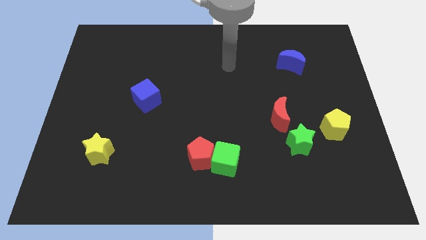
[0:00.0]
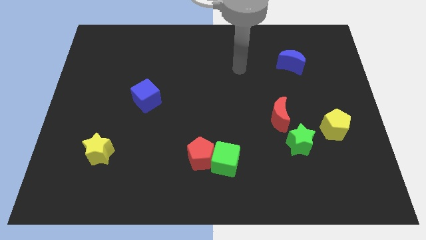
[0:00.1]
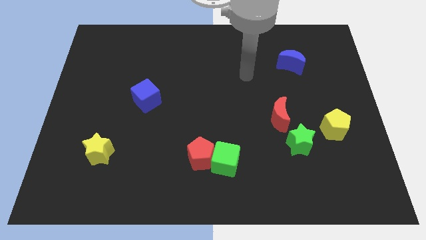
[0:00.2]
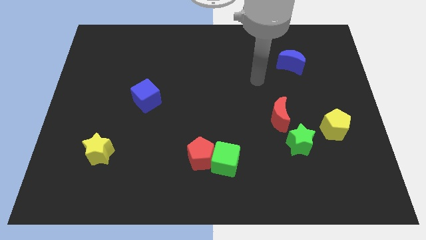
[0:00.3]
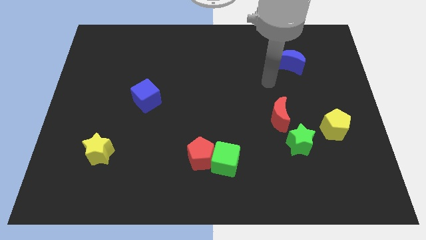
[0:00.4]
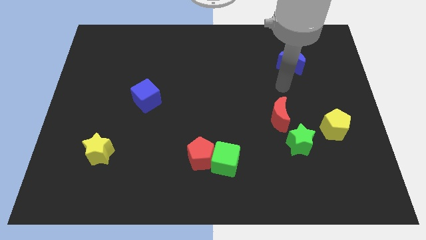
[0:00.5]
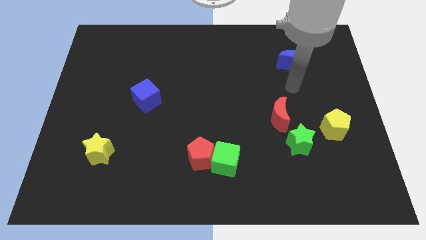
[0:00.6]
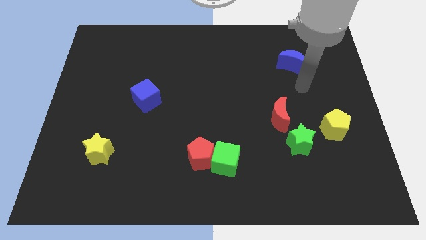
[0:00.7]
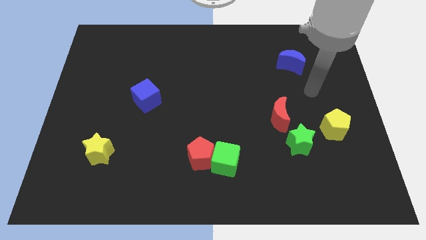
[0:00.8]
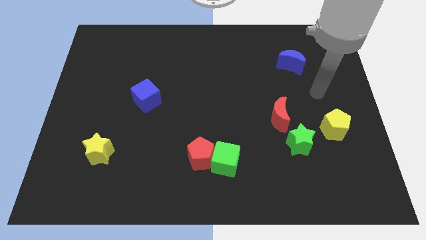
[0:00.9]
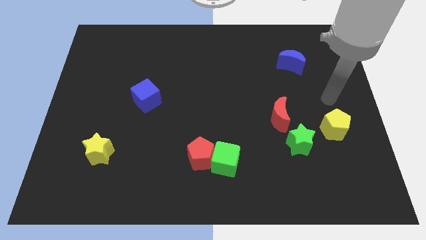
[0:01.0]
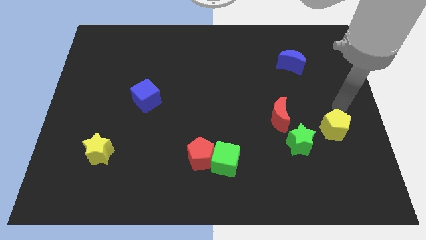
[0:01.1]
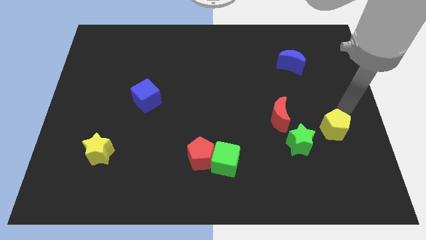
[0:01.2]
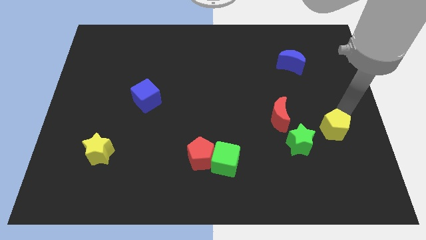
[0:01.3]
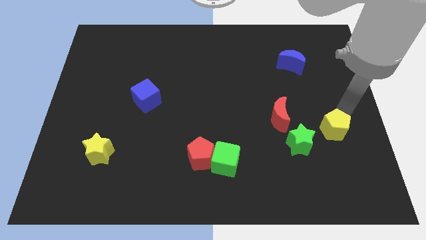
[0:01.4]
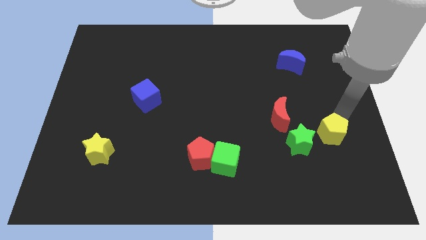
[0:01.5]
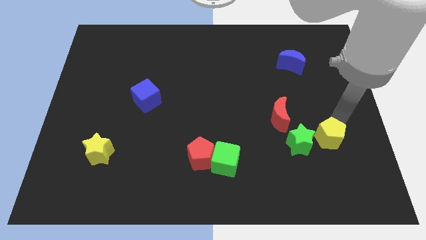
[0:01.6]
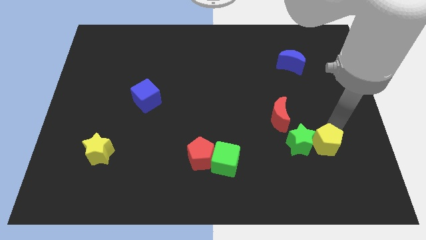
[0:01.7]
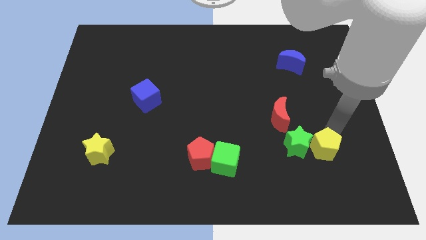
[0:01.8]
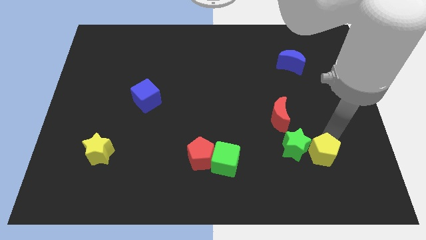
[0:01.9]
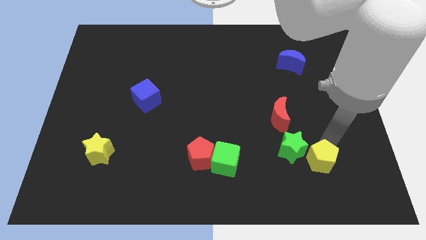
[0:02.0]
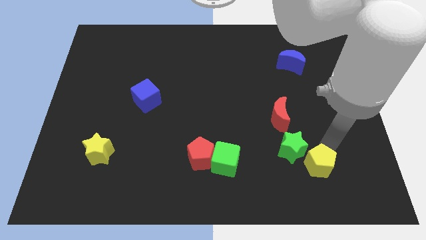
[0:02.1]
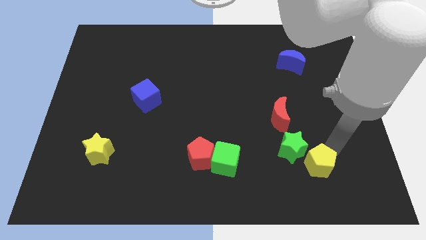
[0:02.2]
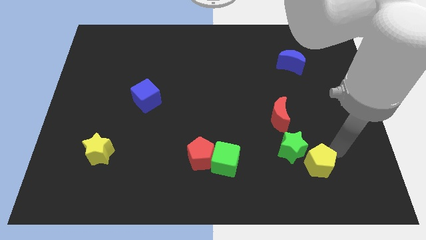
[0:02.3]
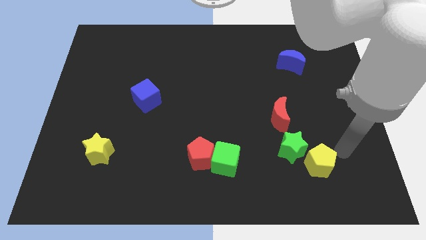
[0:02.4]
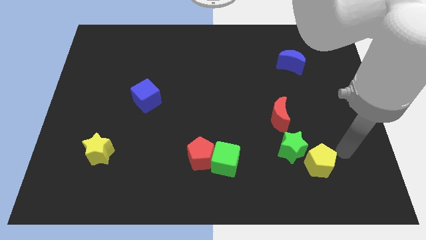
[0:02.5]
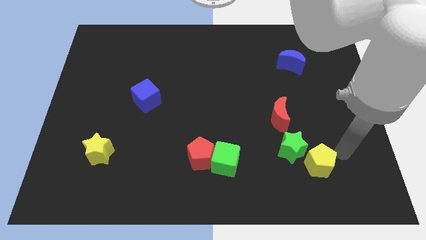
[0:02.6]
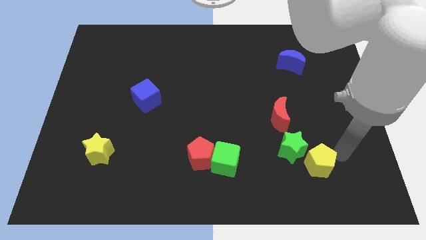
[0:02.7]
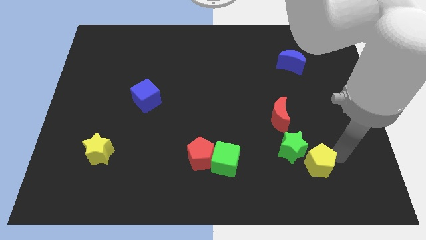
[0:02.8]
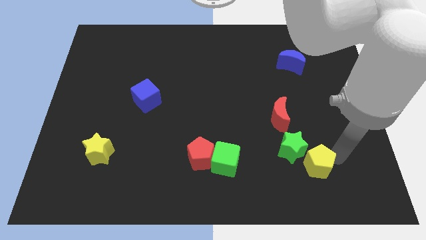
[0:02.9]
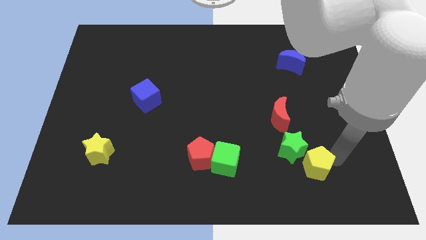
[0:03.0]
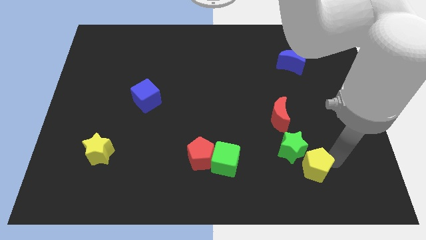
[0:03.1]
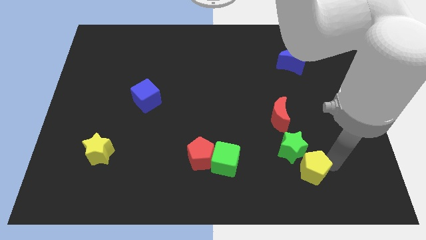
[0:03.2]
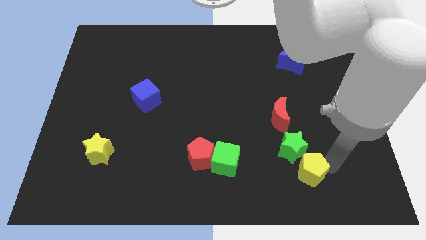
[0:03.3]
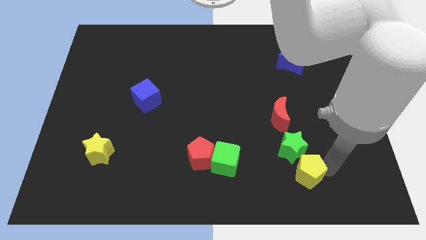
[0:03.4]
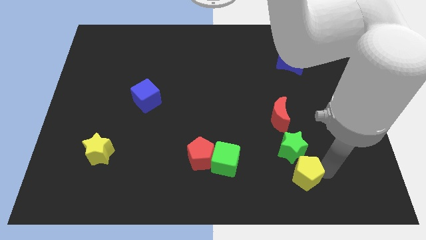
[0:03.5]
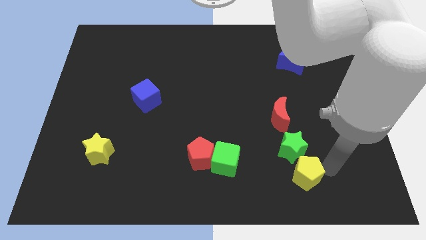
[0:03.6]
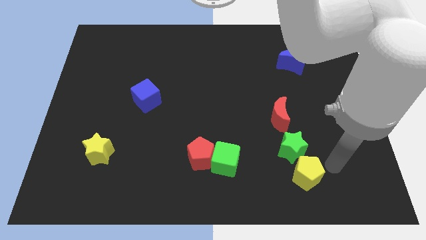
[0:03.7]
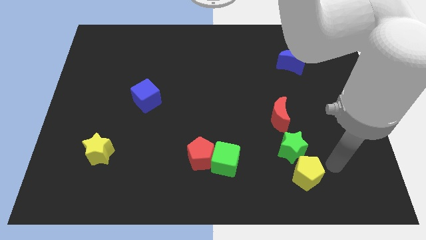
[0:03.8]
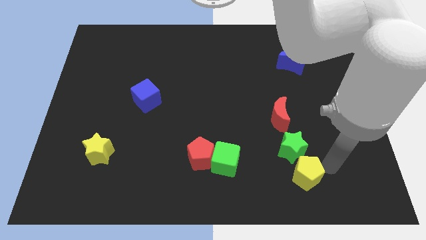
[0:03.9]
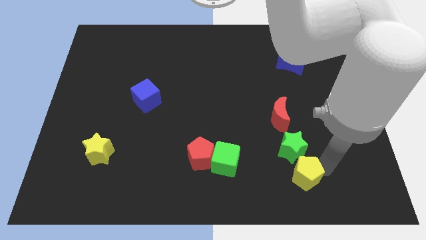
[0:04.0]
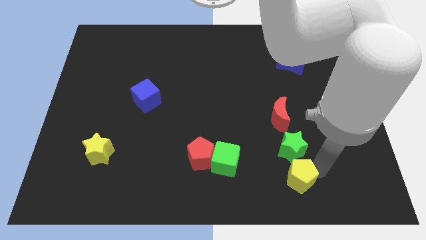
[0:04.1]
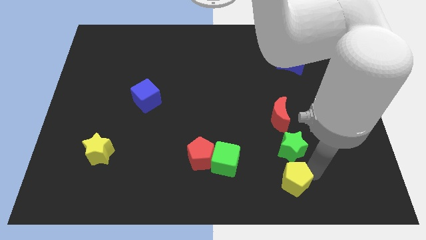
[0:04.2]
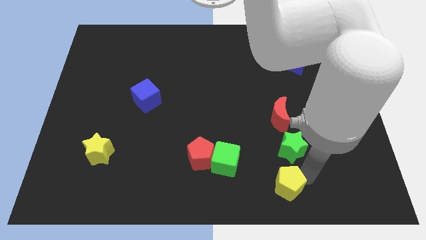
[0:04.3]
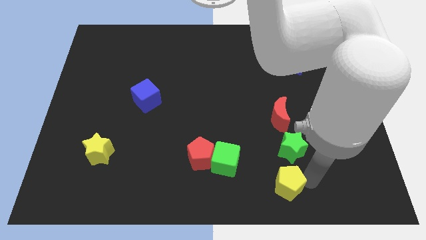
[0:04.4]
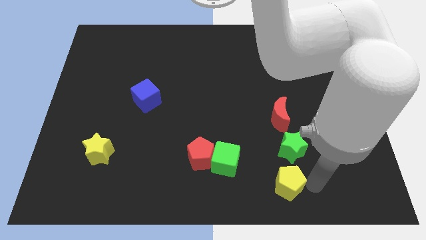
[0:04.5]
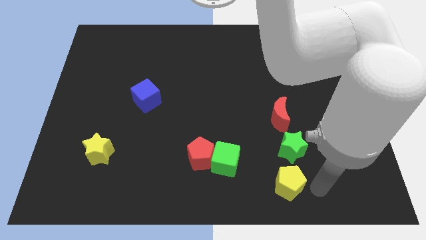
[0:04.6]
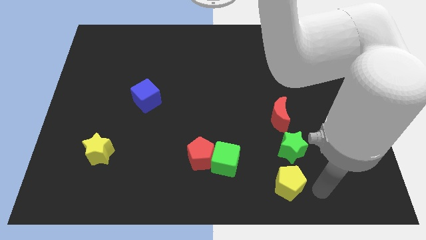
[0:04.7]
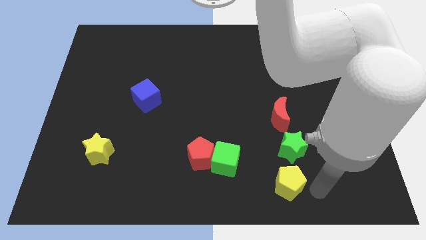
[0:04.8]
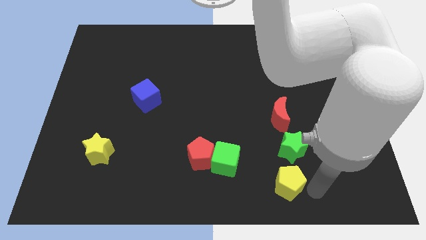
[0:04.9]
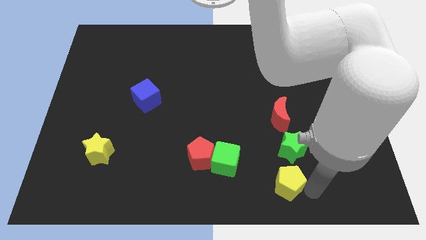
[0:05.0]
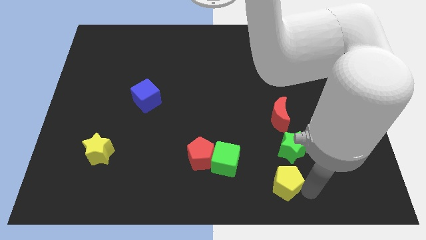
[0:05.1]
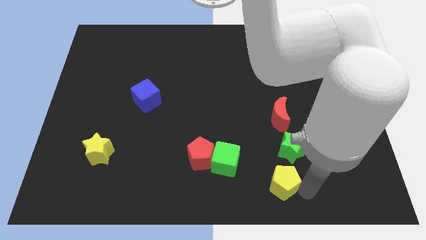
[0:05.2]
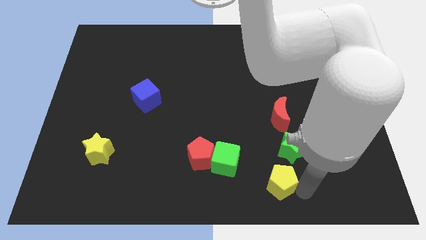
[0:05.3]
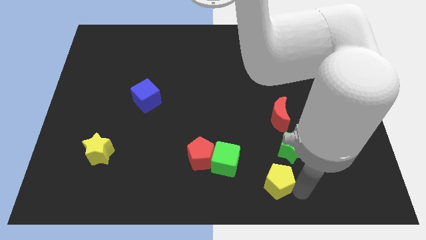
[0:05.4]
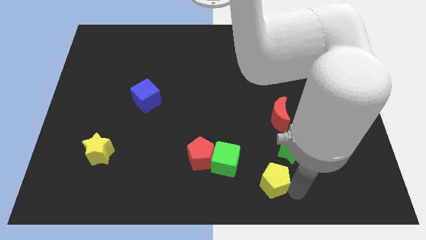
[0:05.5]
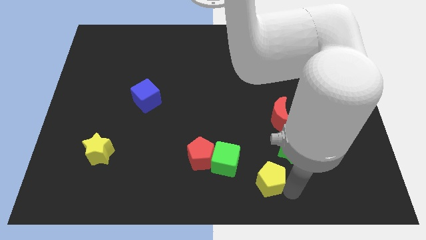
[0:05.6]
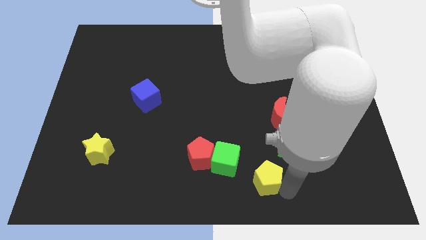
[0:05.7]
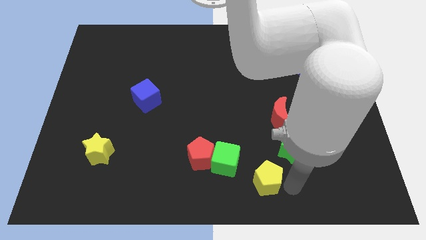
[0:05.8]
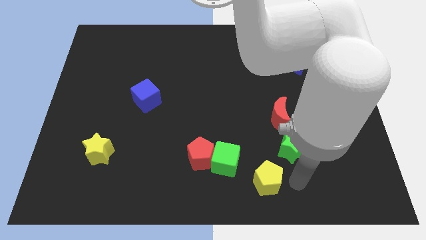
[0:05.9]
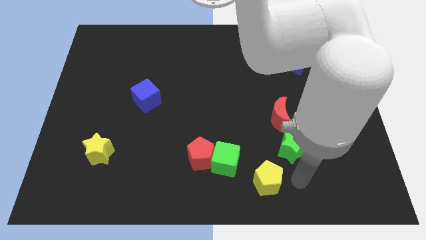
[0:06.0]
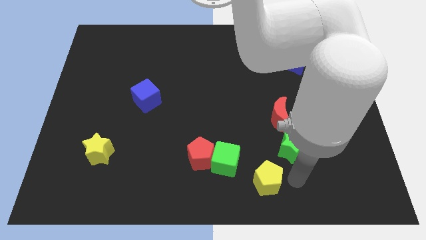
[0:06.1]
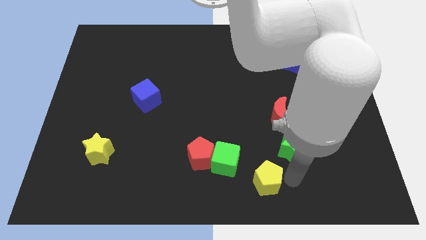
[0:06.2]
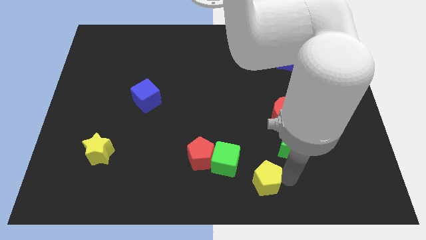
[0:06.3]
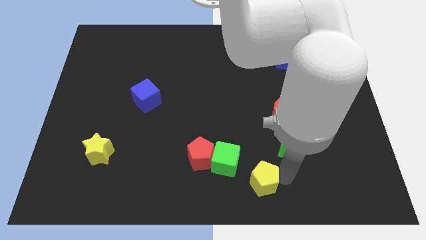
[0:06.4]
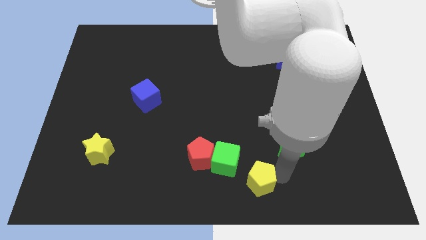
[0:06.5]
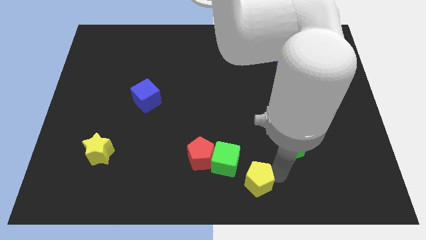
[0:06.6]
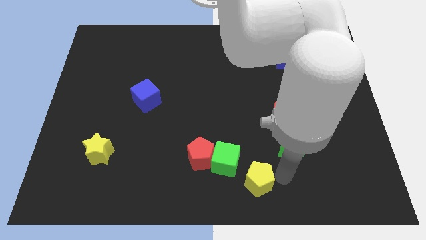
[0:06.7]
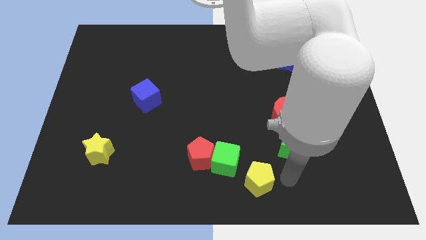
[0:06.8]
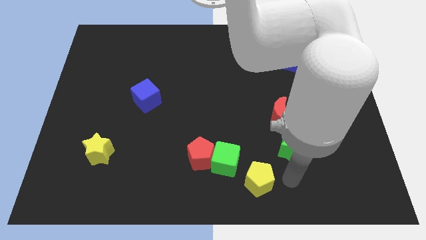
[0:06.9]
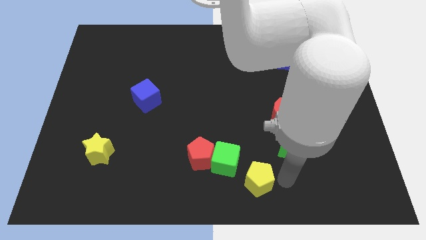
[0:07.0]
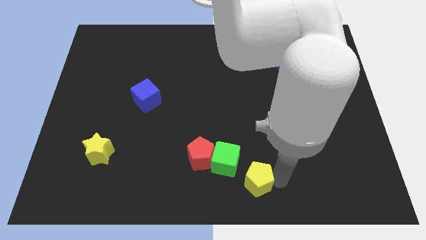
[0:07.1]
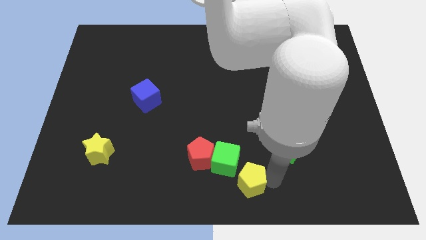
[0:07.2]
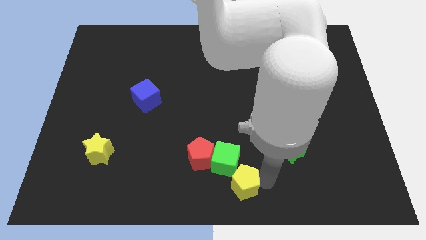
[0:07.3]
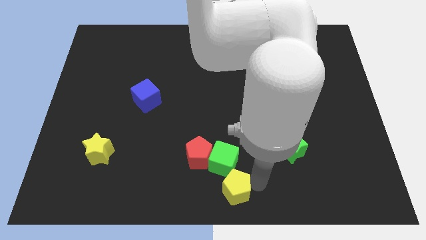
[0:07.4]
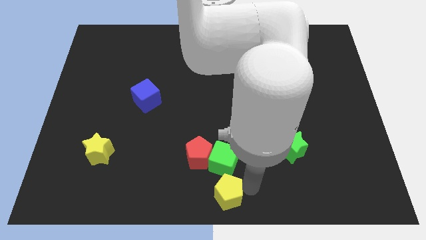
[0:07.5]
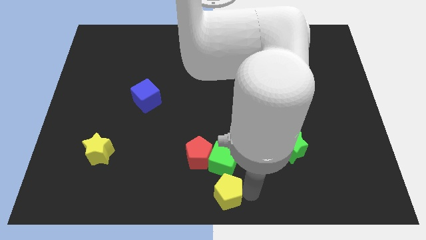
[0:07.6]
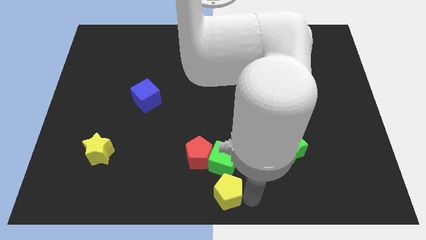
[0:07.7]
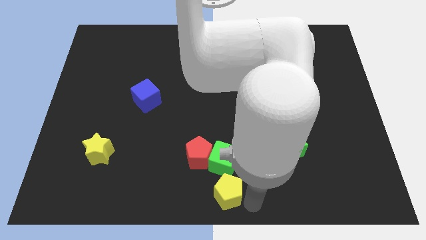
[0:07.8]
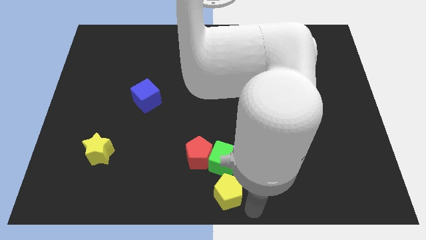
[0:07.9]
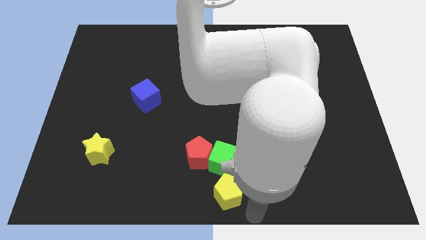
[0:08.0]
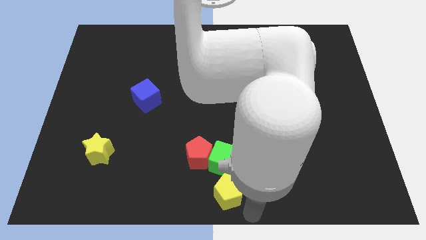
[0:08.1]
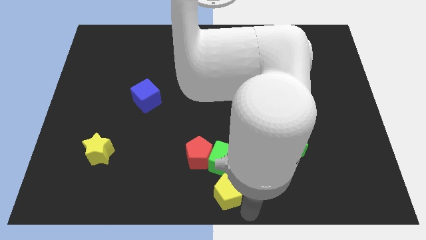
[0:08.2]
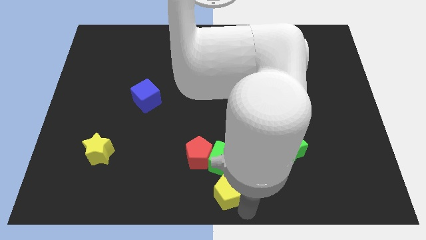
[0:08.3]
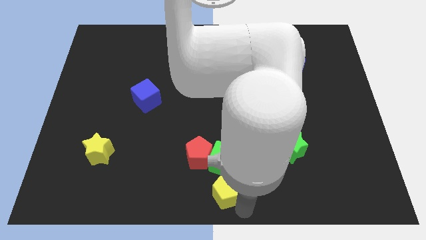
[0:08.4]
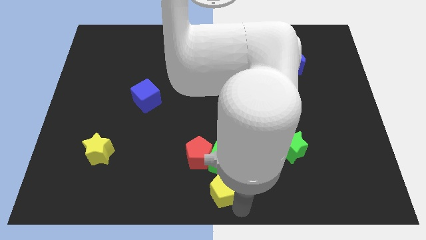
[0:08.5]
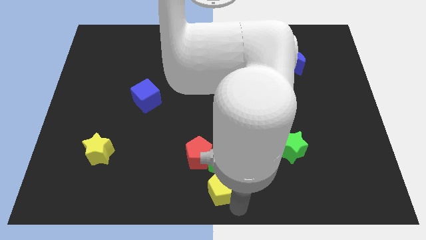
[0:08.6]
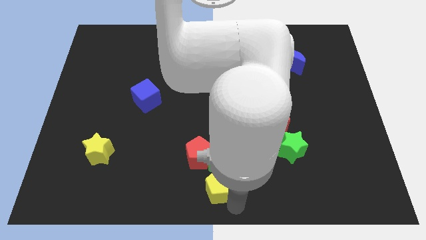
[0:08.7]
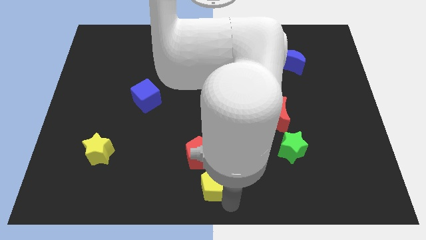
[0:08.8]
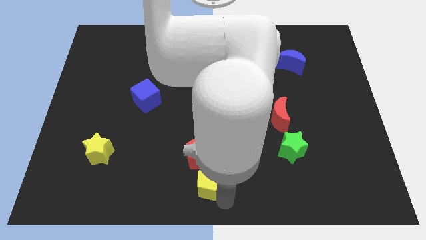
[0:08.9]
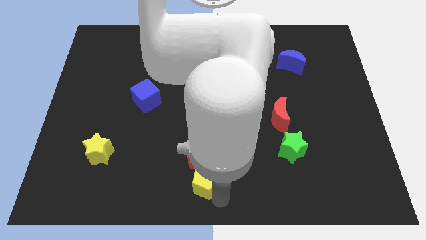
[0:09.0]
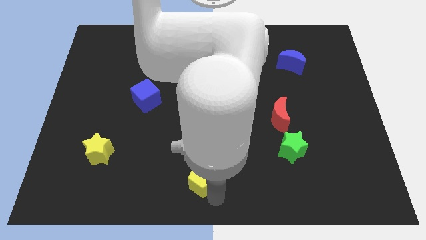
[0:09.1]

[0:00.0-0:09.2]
push the yellow pentagon to the left of the green cube
